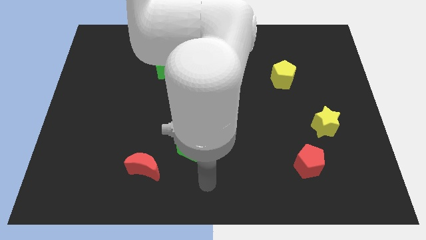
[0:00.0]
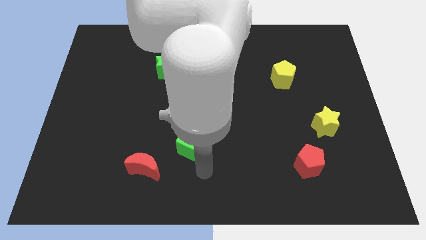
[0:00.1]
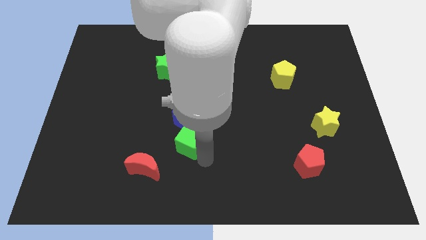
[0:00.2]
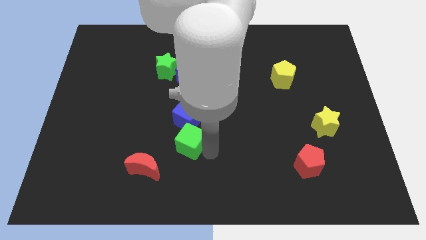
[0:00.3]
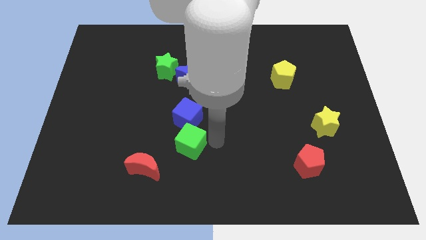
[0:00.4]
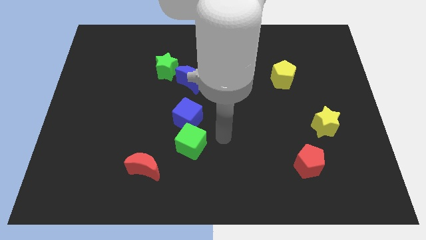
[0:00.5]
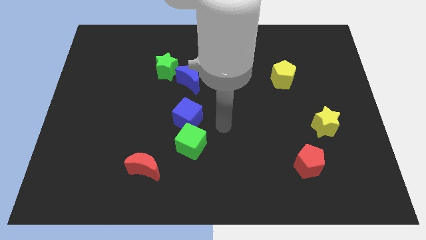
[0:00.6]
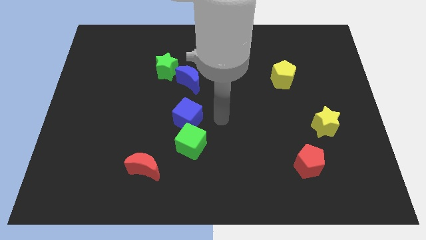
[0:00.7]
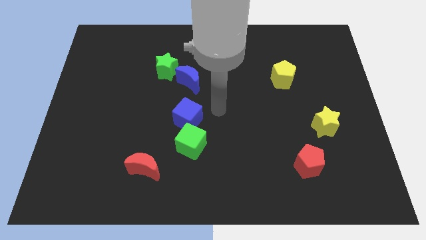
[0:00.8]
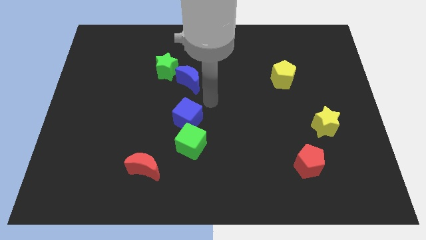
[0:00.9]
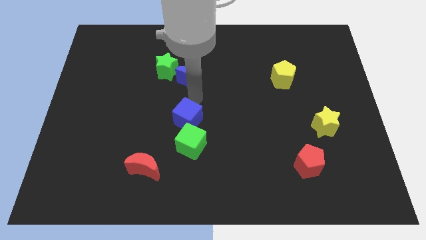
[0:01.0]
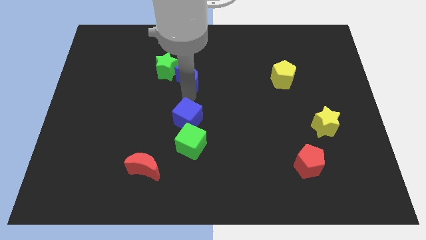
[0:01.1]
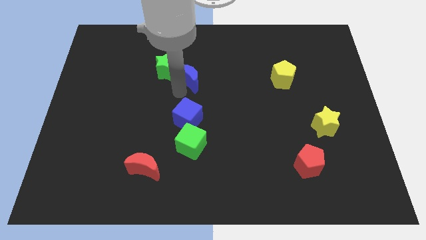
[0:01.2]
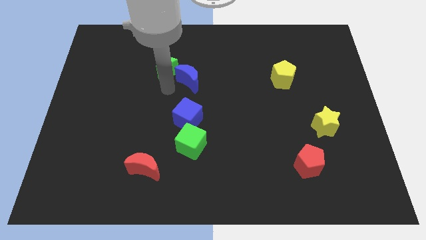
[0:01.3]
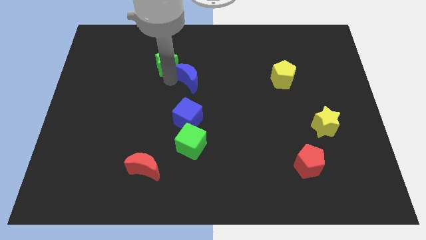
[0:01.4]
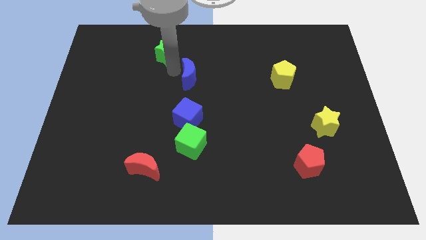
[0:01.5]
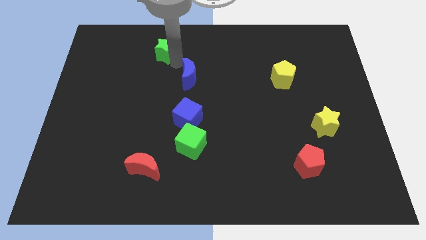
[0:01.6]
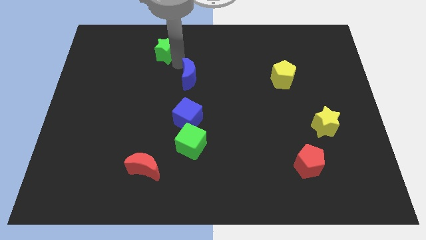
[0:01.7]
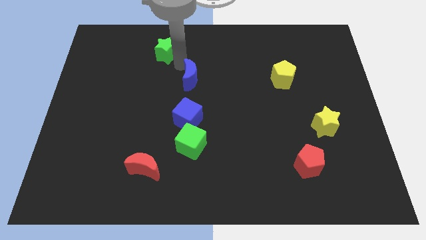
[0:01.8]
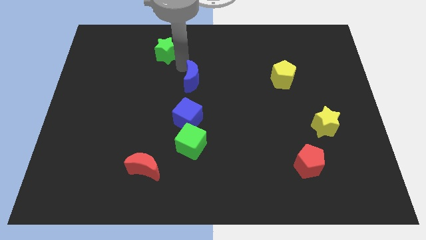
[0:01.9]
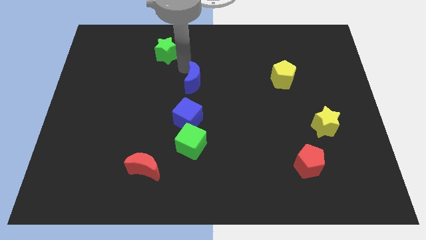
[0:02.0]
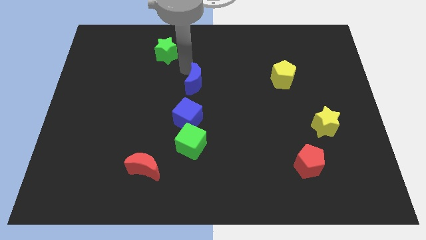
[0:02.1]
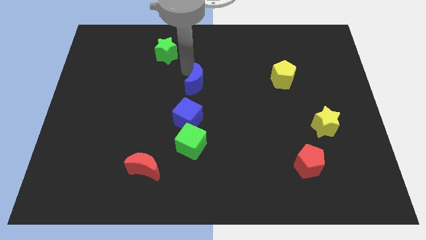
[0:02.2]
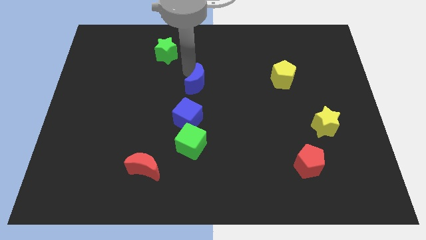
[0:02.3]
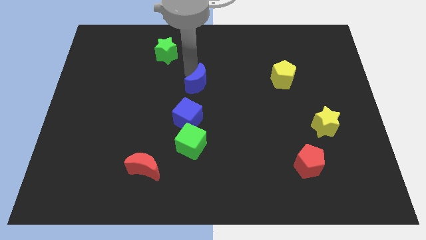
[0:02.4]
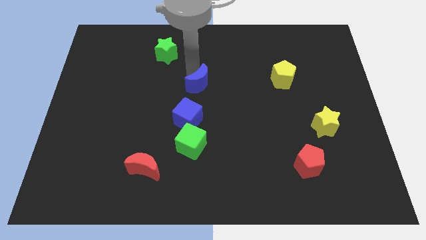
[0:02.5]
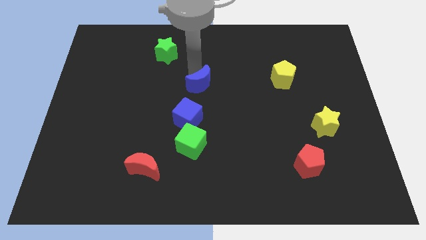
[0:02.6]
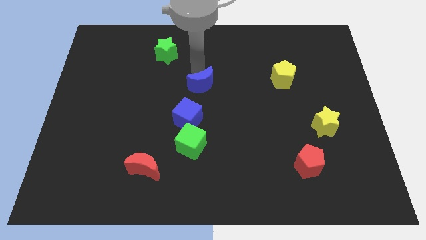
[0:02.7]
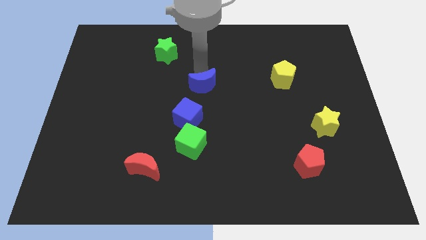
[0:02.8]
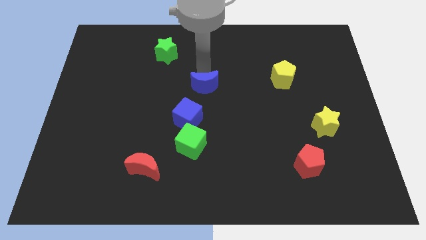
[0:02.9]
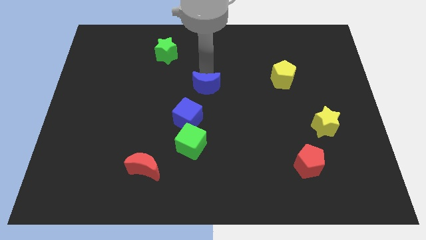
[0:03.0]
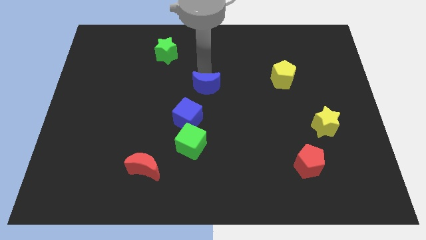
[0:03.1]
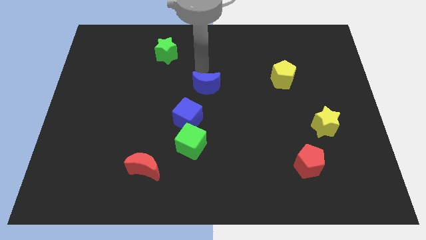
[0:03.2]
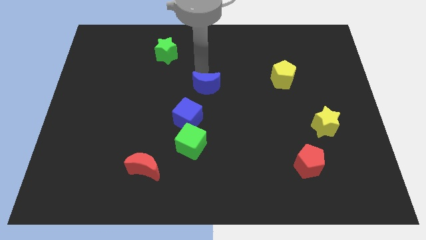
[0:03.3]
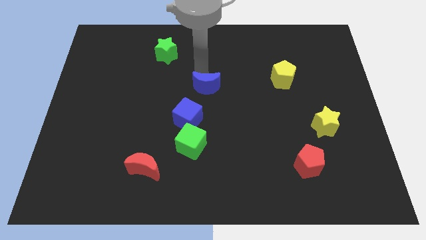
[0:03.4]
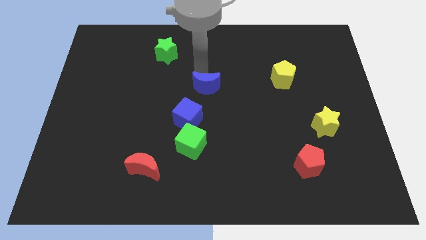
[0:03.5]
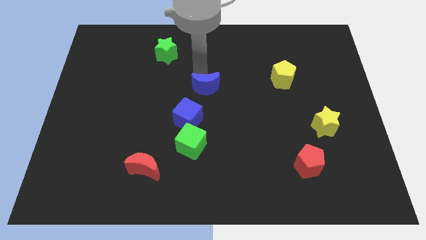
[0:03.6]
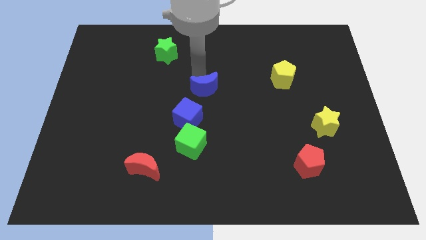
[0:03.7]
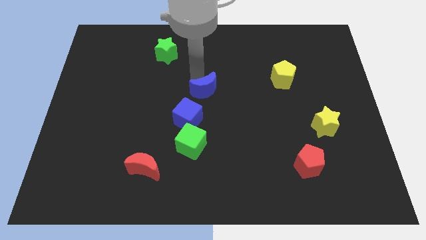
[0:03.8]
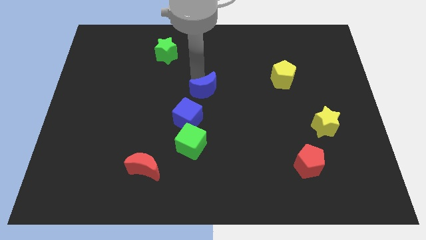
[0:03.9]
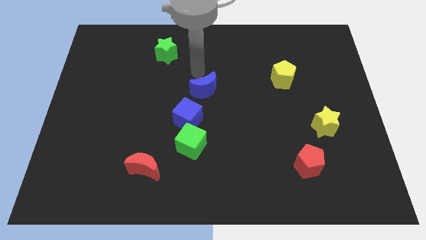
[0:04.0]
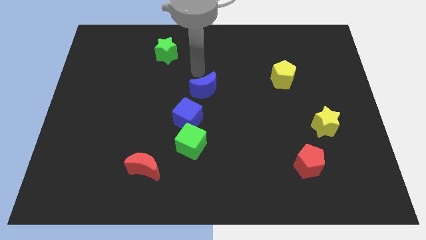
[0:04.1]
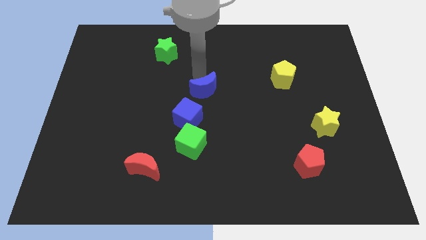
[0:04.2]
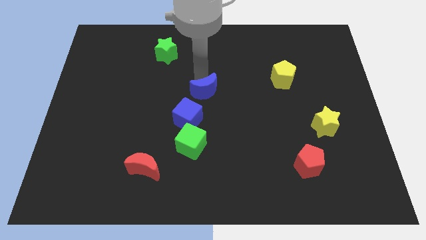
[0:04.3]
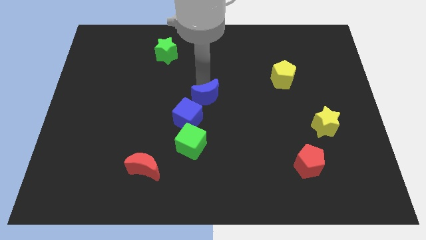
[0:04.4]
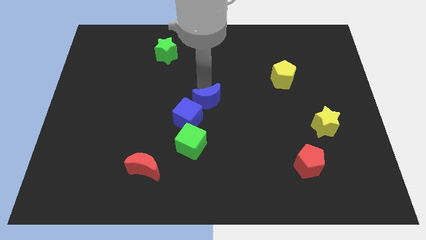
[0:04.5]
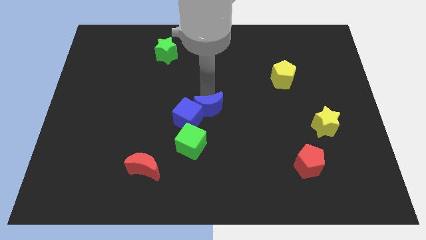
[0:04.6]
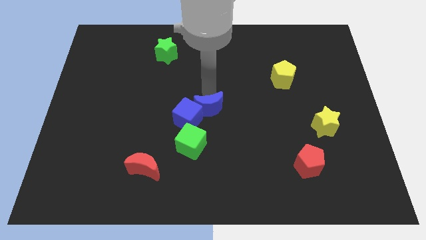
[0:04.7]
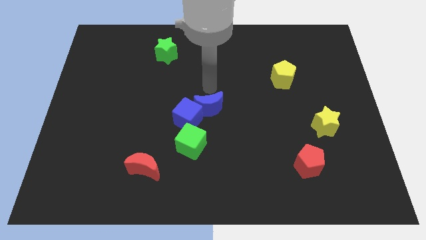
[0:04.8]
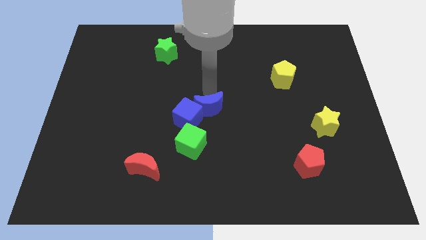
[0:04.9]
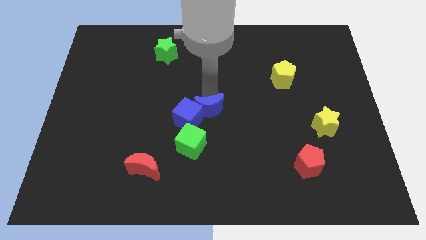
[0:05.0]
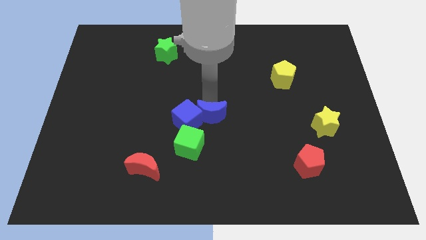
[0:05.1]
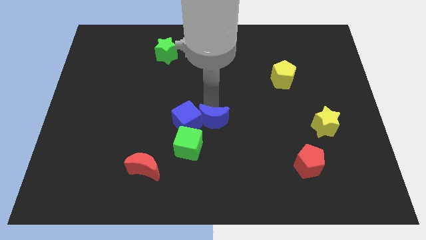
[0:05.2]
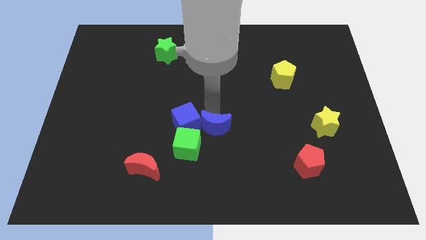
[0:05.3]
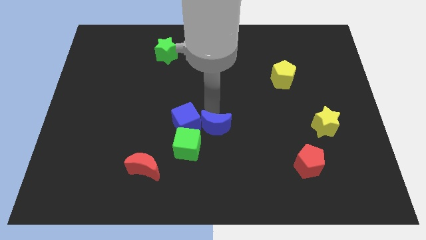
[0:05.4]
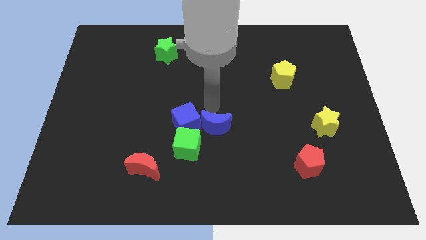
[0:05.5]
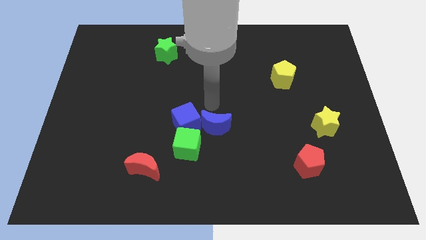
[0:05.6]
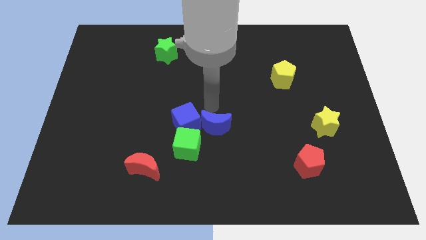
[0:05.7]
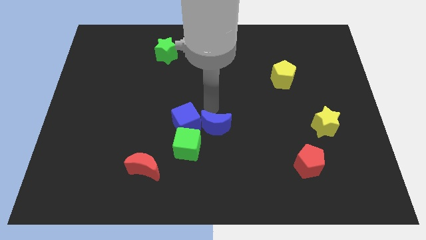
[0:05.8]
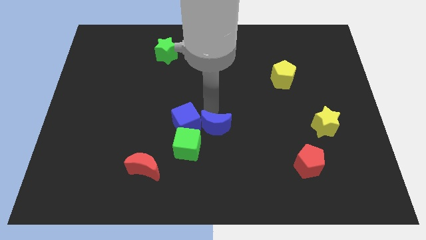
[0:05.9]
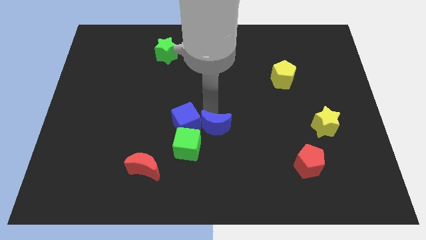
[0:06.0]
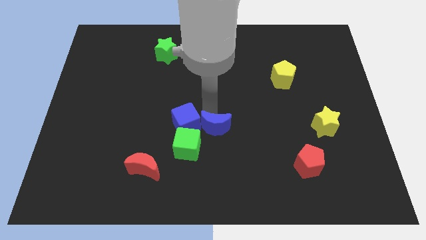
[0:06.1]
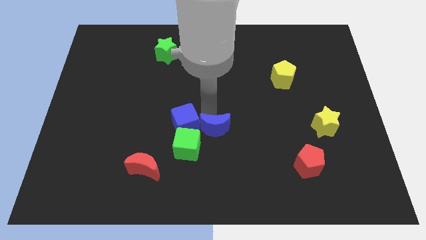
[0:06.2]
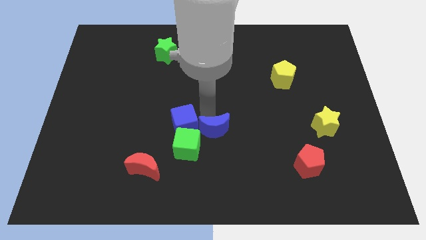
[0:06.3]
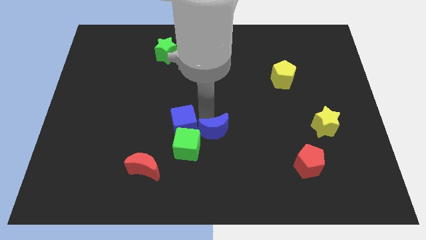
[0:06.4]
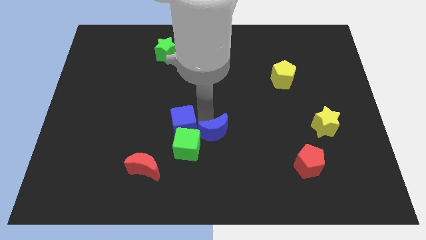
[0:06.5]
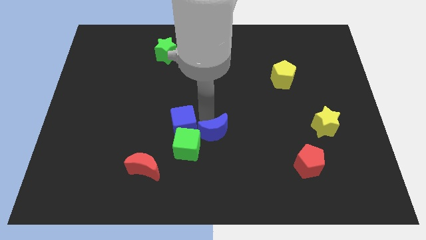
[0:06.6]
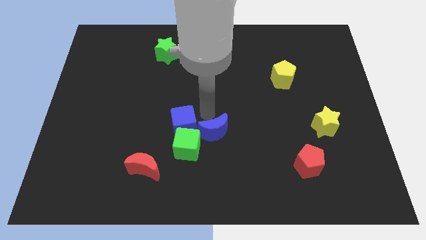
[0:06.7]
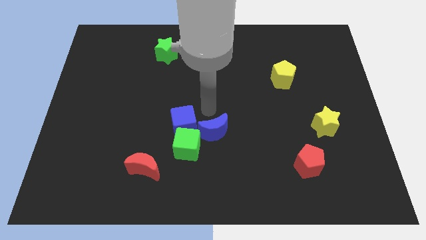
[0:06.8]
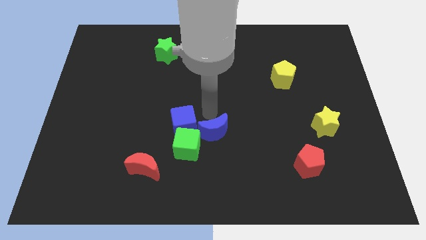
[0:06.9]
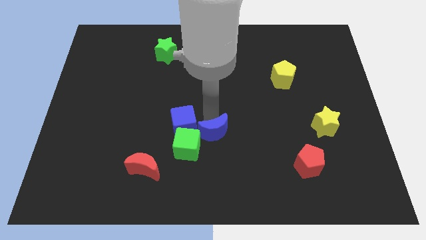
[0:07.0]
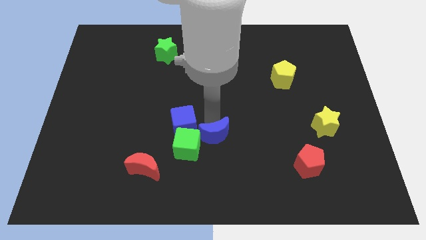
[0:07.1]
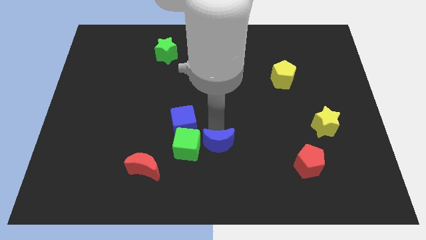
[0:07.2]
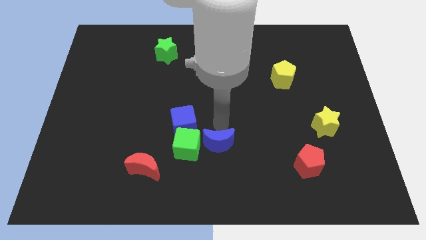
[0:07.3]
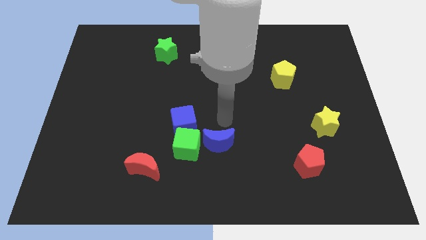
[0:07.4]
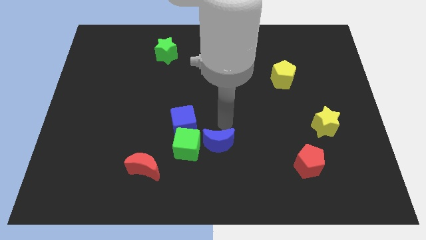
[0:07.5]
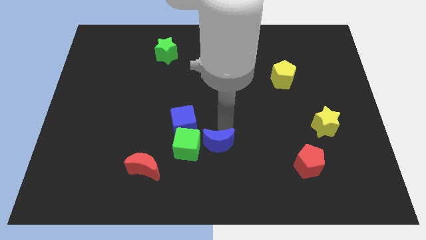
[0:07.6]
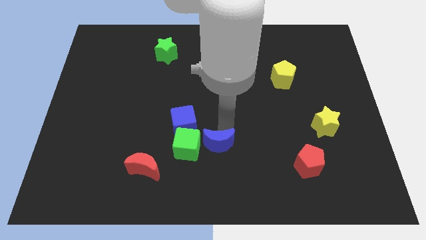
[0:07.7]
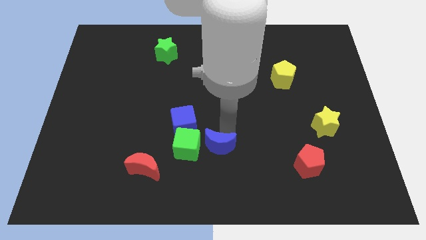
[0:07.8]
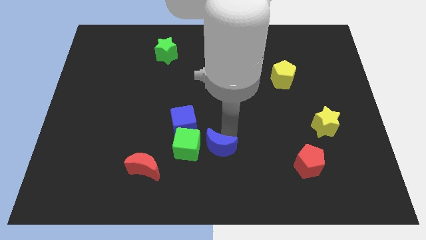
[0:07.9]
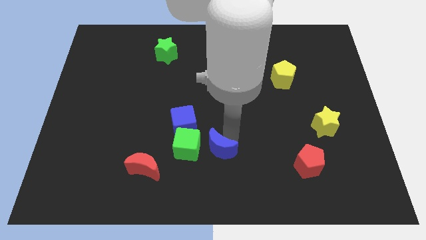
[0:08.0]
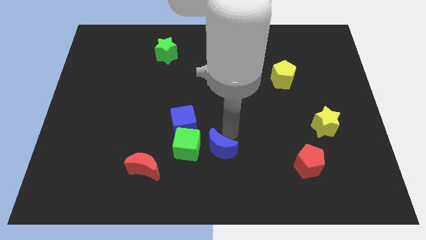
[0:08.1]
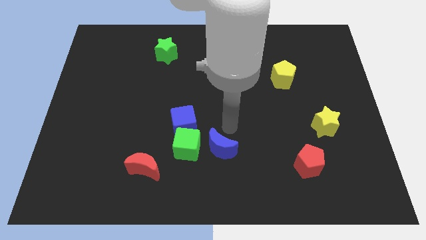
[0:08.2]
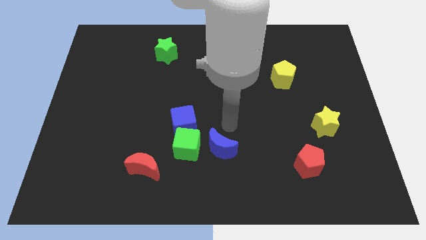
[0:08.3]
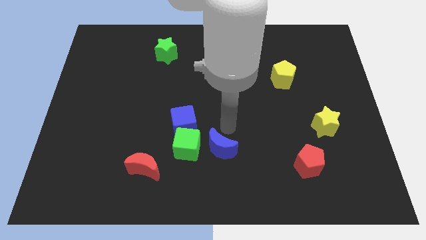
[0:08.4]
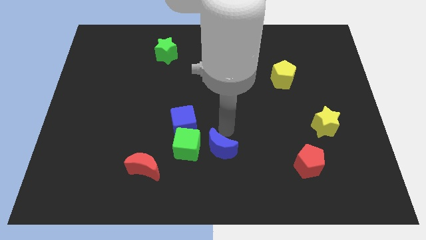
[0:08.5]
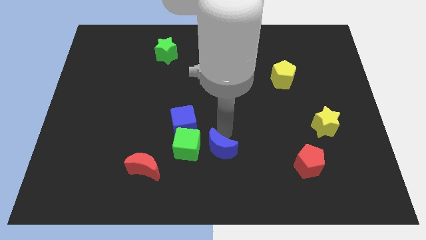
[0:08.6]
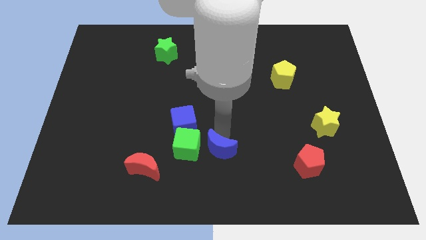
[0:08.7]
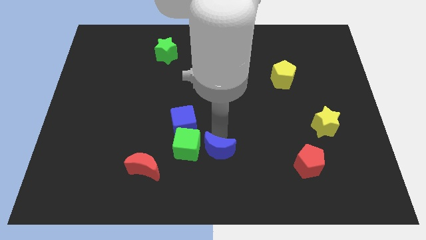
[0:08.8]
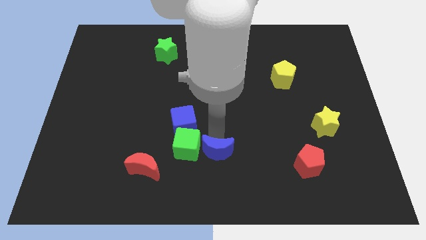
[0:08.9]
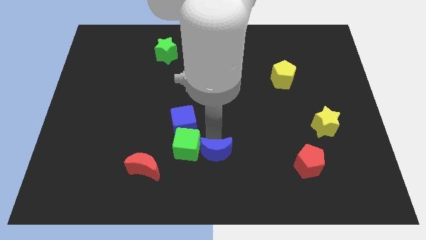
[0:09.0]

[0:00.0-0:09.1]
put the blue moon to the bottom side
